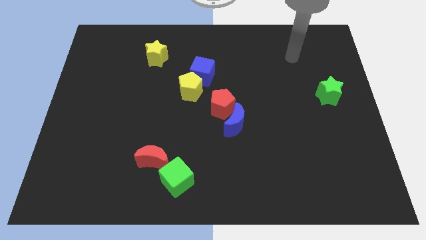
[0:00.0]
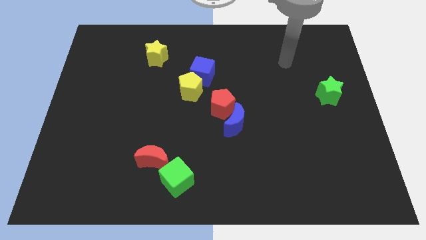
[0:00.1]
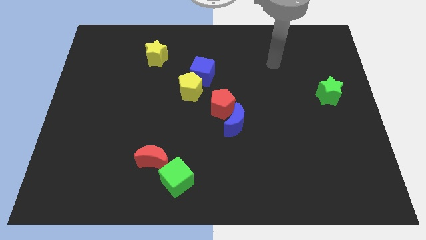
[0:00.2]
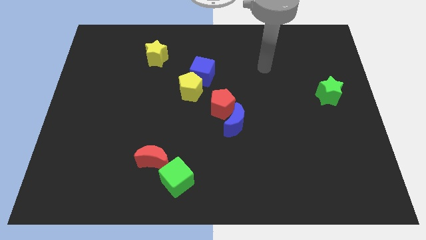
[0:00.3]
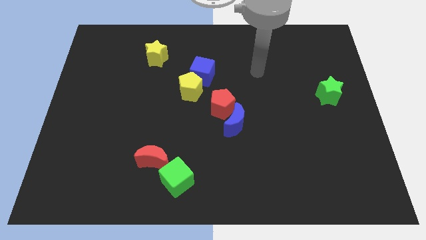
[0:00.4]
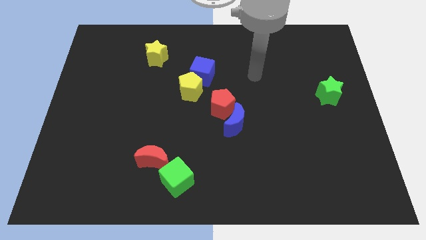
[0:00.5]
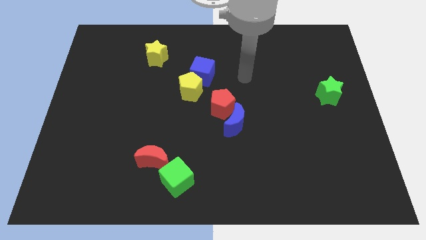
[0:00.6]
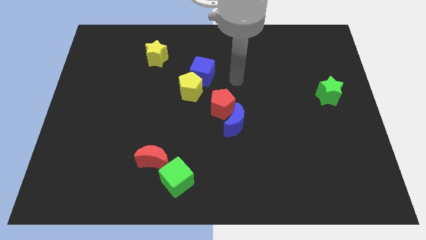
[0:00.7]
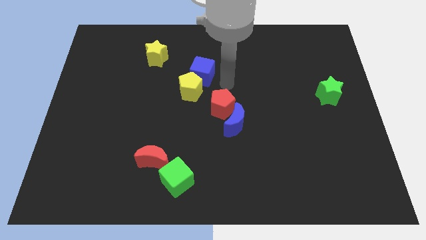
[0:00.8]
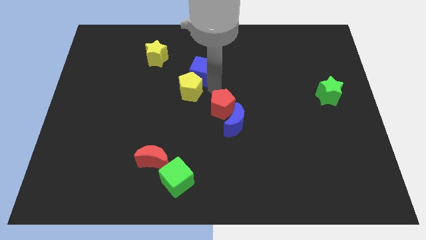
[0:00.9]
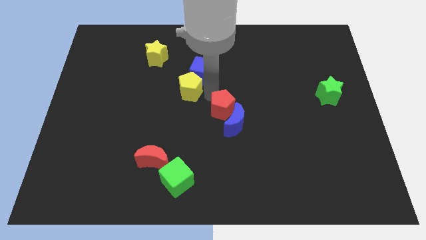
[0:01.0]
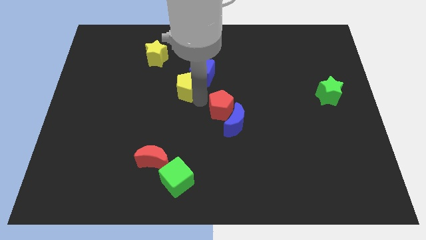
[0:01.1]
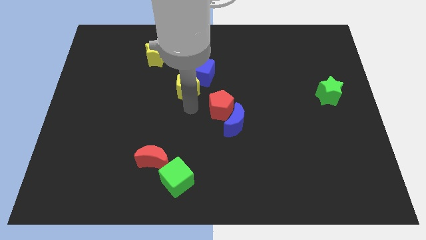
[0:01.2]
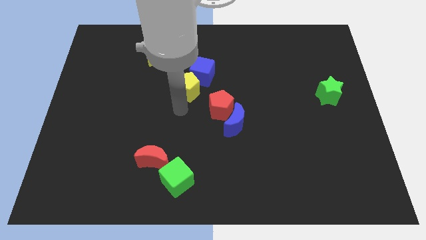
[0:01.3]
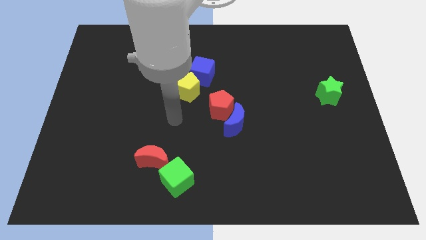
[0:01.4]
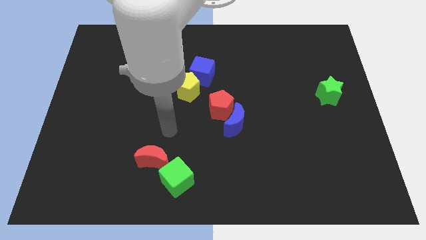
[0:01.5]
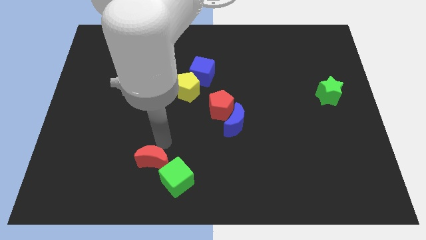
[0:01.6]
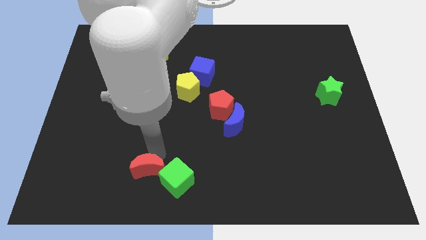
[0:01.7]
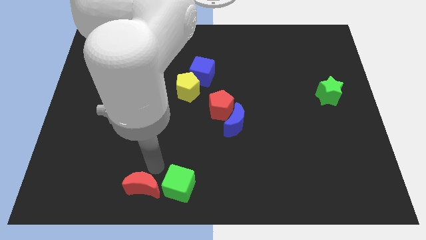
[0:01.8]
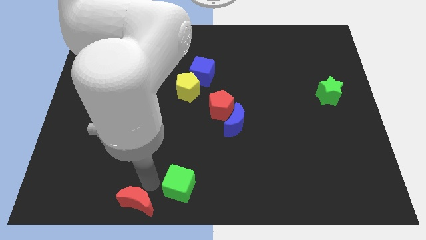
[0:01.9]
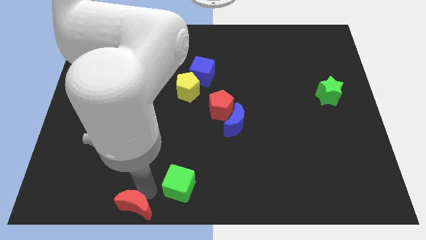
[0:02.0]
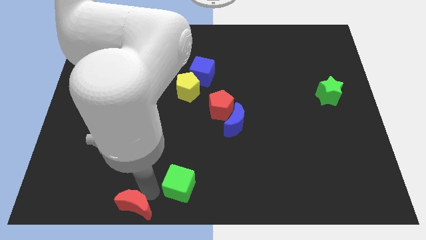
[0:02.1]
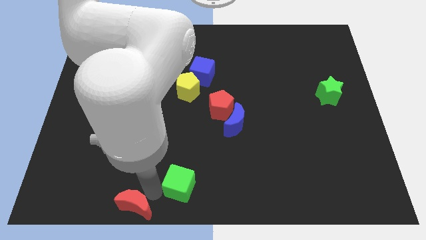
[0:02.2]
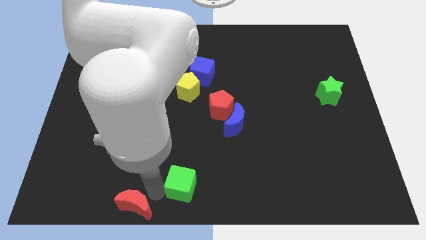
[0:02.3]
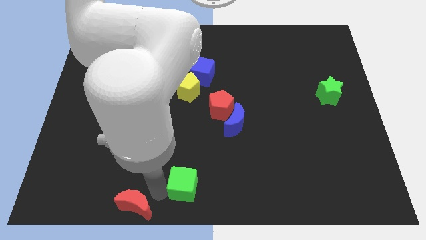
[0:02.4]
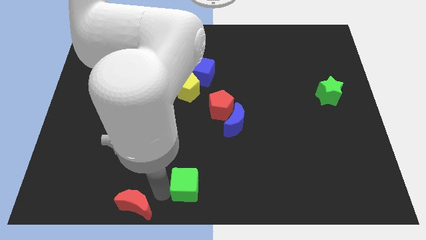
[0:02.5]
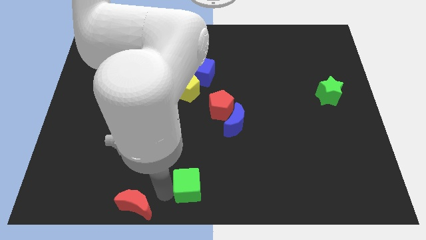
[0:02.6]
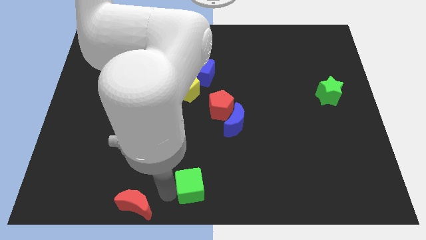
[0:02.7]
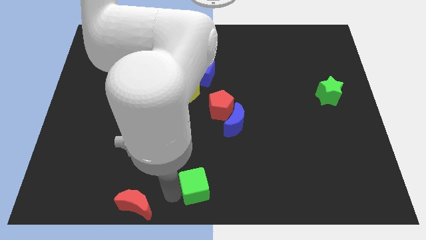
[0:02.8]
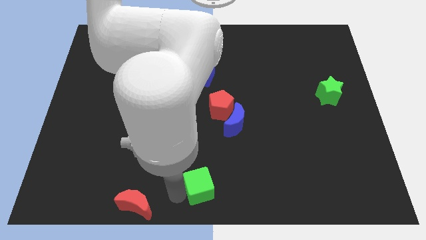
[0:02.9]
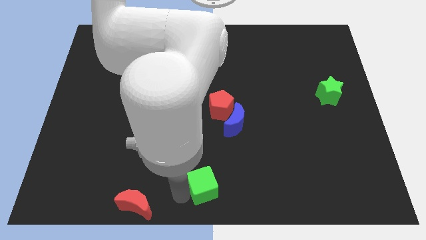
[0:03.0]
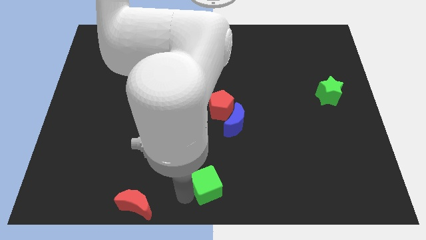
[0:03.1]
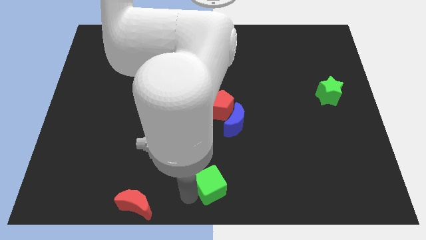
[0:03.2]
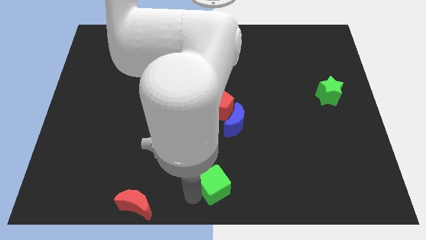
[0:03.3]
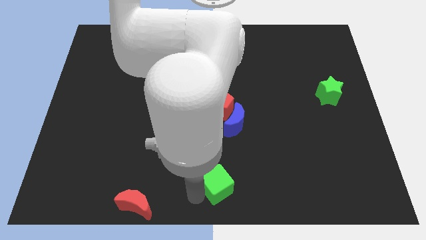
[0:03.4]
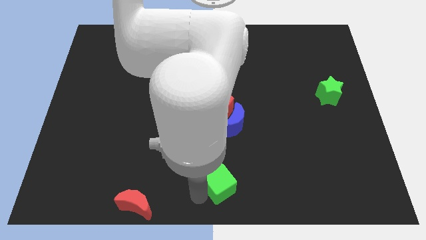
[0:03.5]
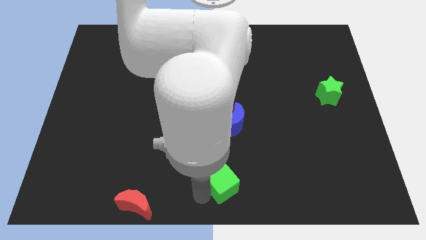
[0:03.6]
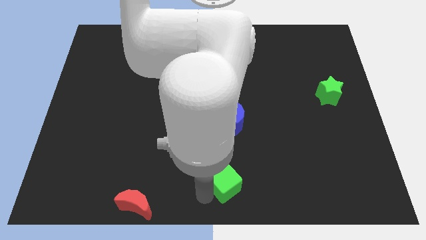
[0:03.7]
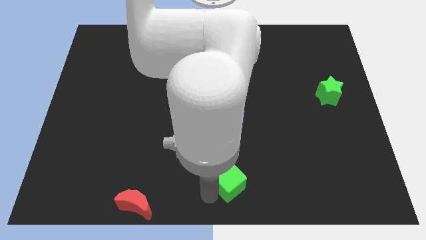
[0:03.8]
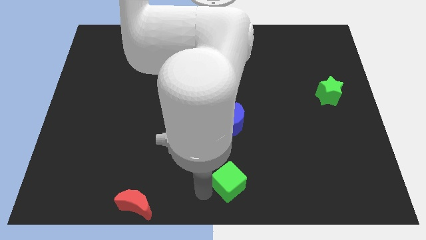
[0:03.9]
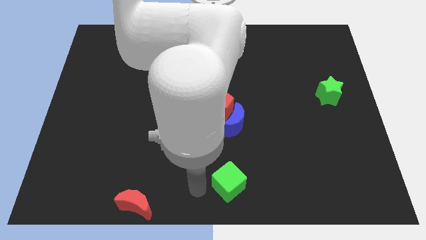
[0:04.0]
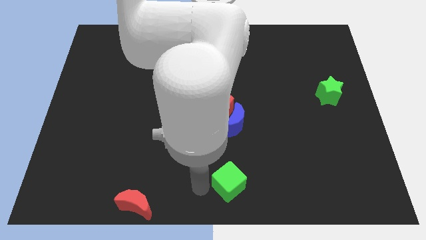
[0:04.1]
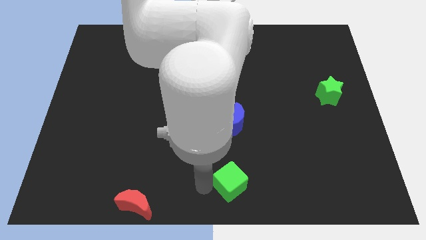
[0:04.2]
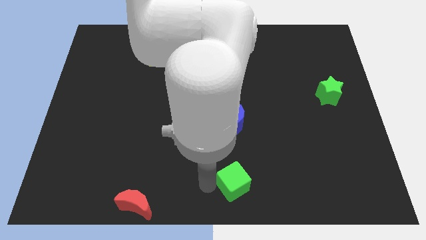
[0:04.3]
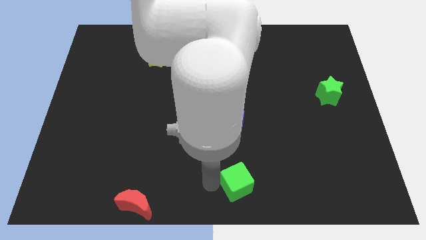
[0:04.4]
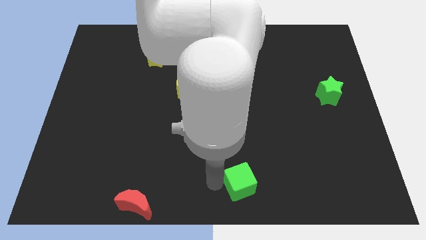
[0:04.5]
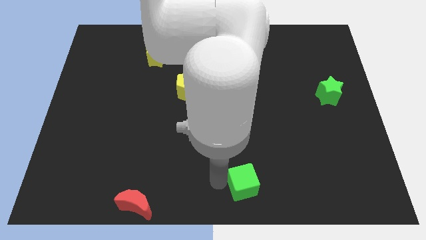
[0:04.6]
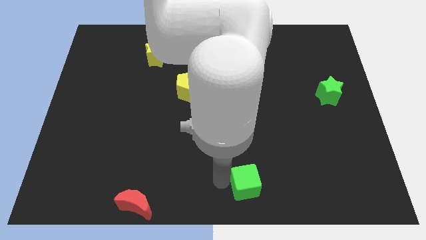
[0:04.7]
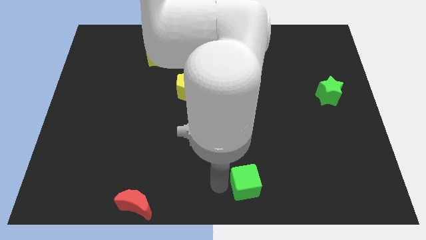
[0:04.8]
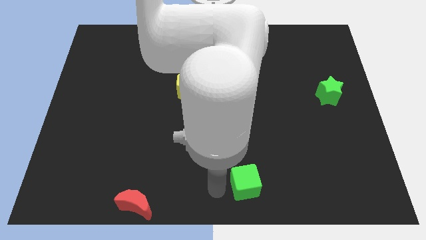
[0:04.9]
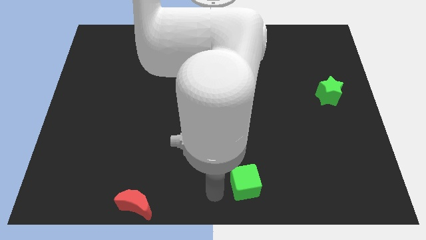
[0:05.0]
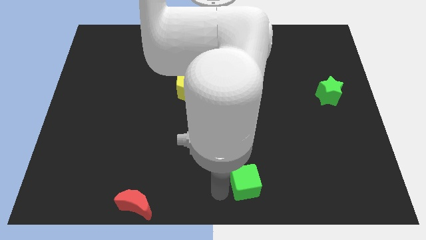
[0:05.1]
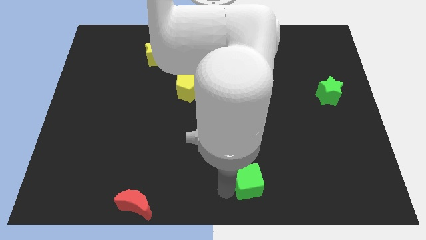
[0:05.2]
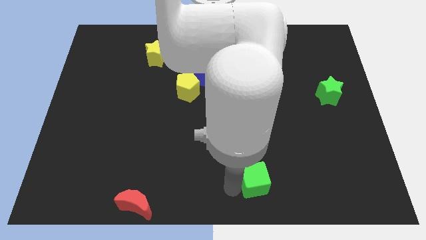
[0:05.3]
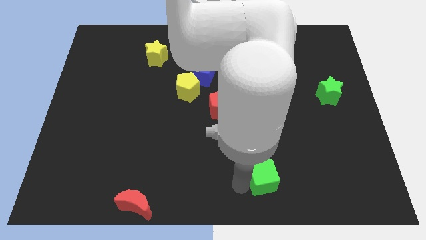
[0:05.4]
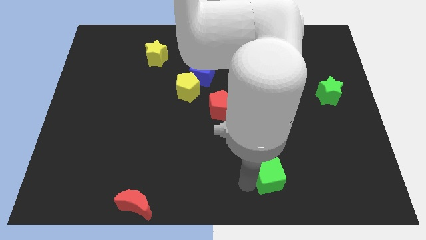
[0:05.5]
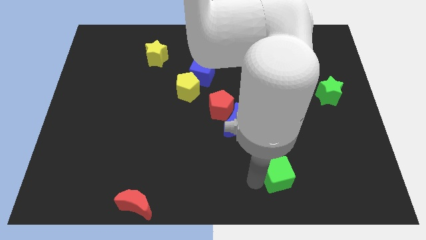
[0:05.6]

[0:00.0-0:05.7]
slide the green cube right

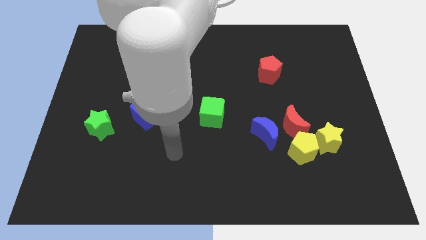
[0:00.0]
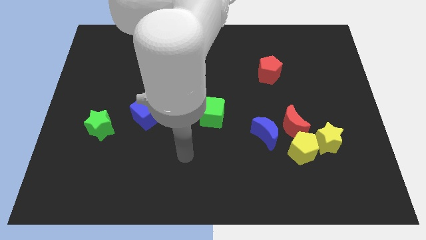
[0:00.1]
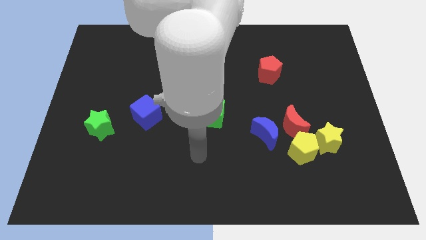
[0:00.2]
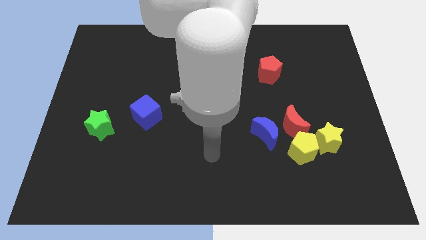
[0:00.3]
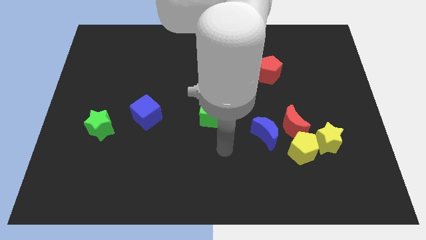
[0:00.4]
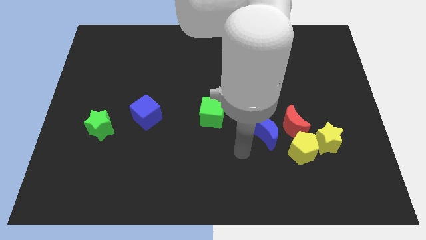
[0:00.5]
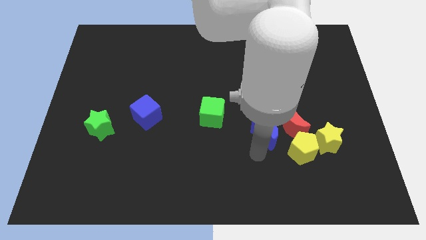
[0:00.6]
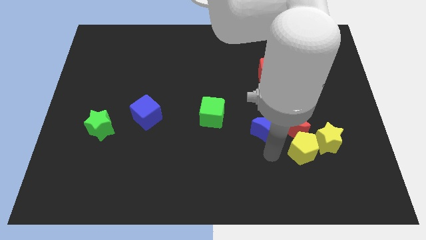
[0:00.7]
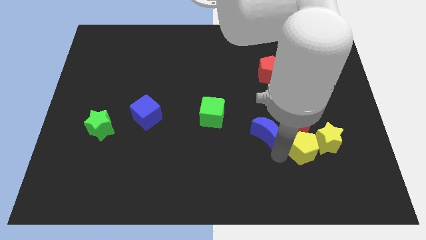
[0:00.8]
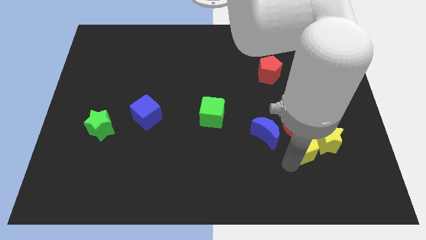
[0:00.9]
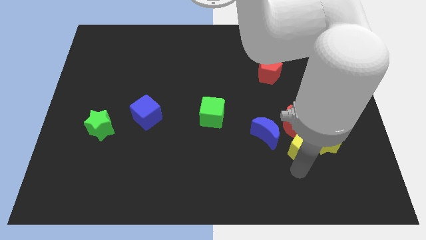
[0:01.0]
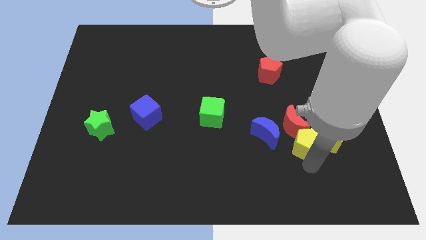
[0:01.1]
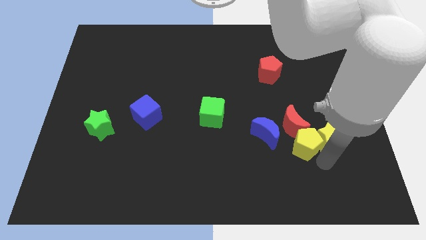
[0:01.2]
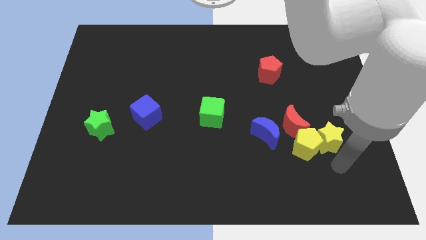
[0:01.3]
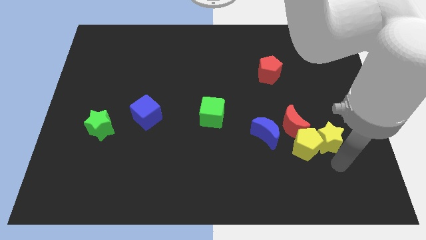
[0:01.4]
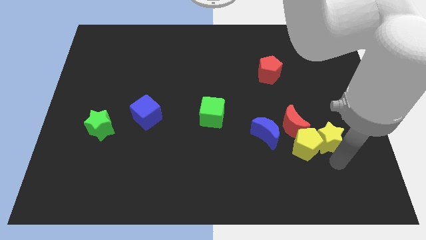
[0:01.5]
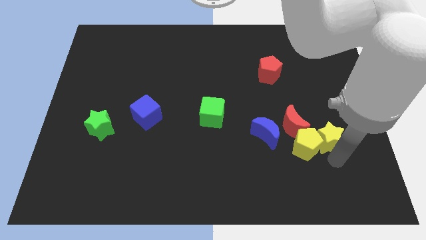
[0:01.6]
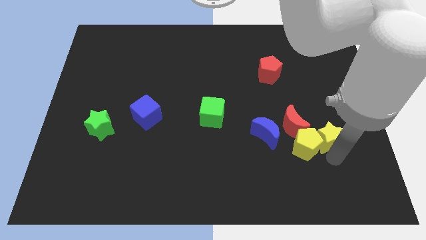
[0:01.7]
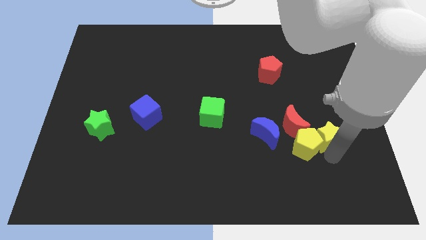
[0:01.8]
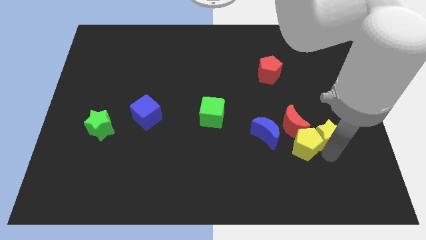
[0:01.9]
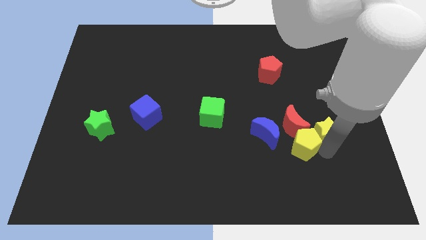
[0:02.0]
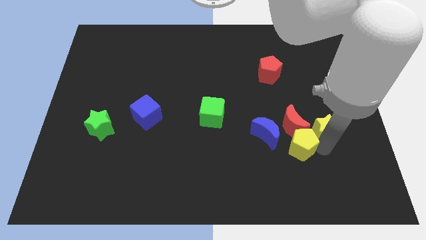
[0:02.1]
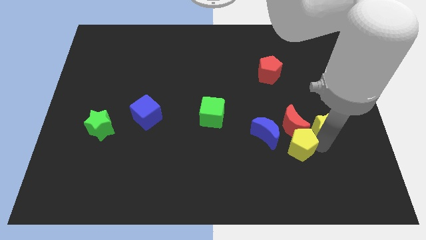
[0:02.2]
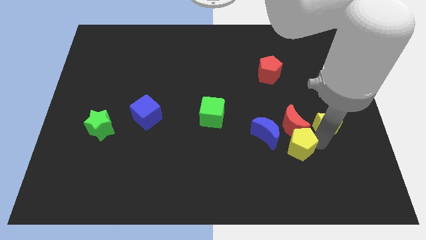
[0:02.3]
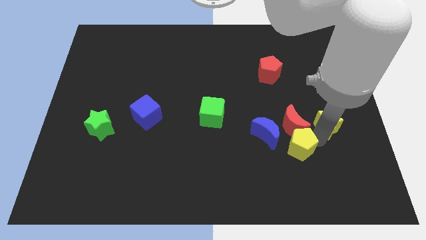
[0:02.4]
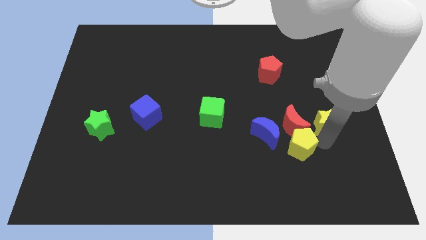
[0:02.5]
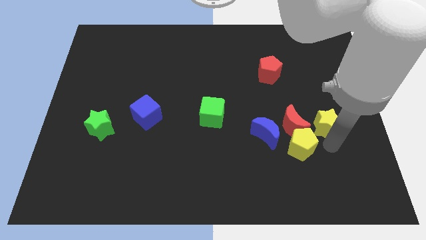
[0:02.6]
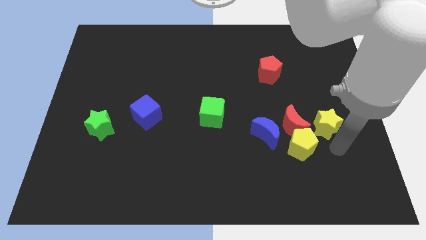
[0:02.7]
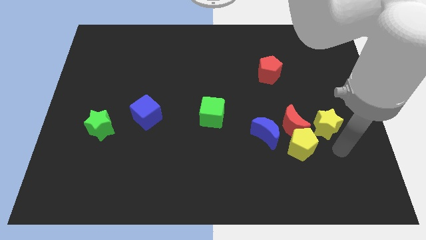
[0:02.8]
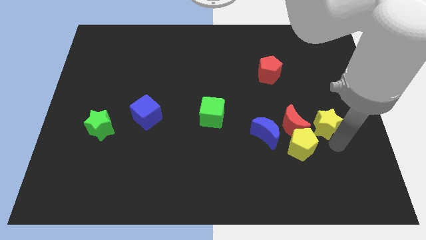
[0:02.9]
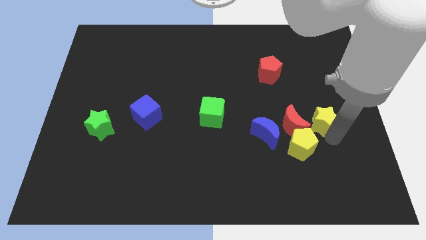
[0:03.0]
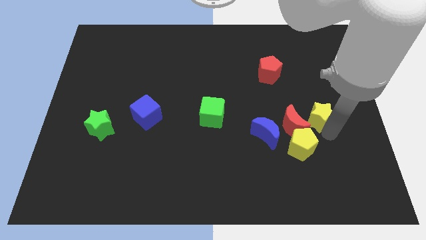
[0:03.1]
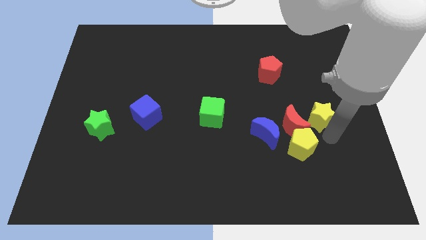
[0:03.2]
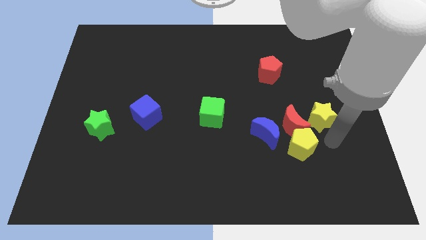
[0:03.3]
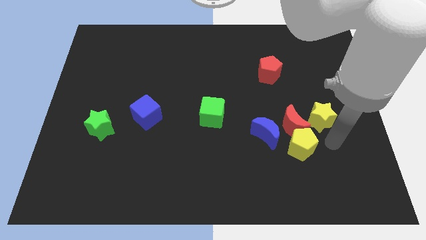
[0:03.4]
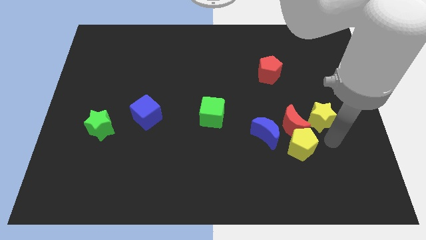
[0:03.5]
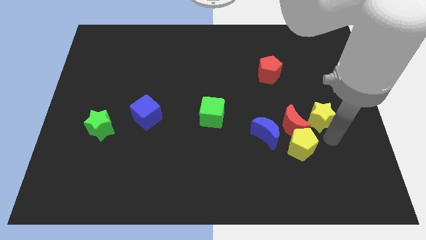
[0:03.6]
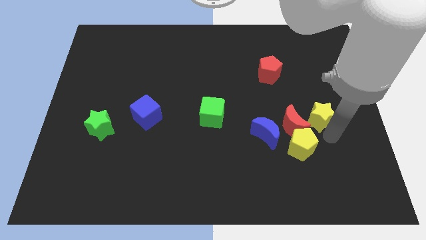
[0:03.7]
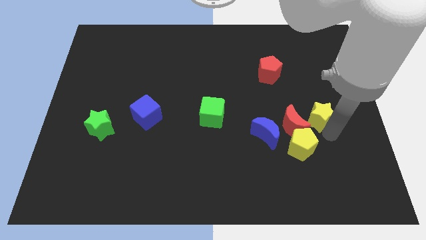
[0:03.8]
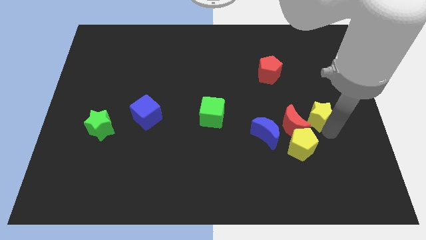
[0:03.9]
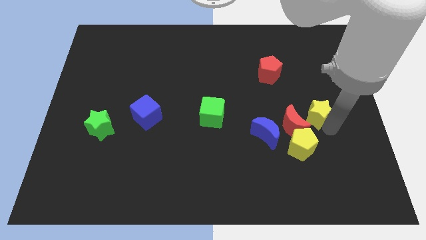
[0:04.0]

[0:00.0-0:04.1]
push the yellow star slightly up
